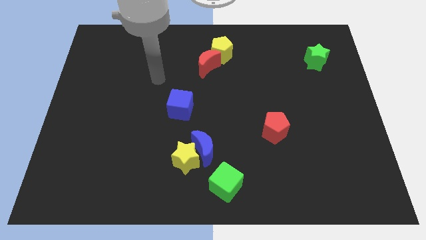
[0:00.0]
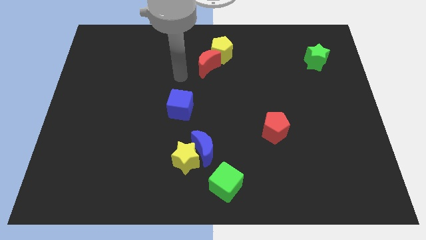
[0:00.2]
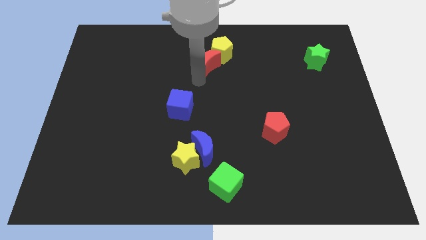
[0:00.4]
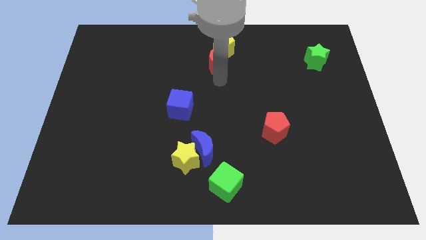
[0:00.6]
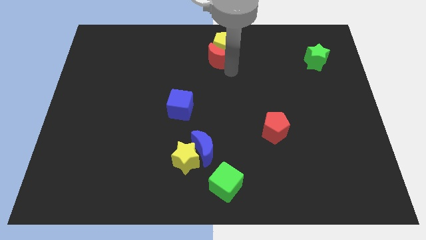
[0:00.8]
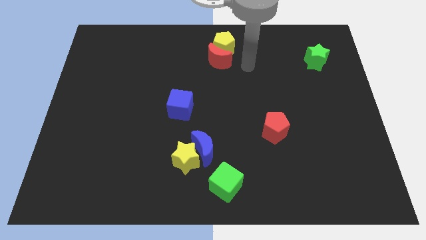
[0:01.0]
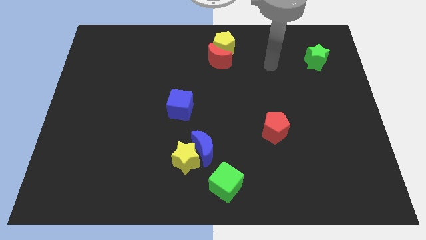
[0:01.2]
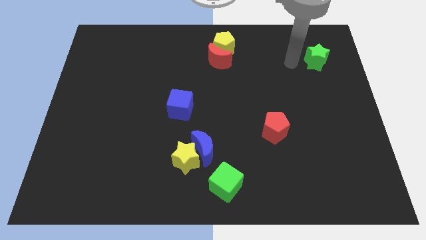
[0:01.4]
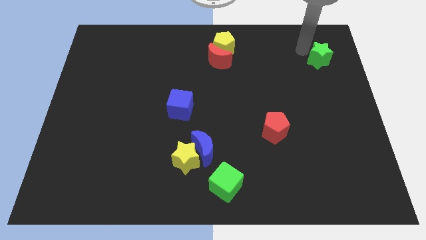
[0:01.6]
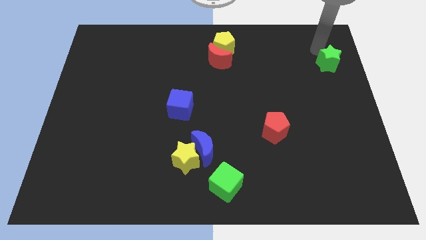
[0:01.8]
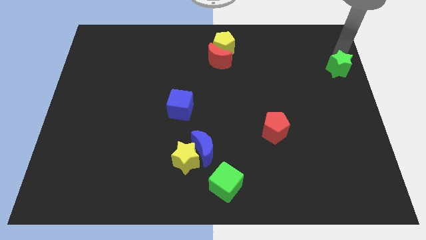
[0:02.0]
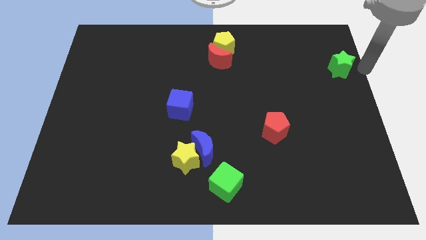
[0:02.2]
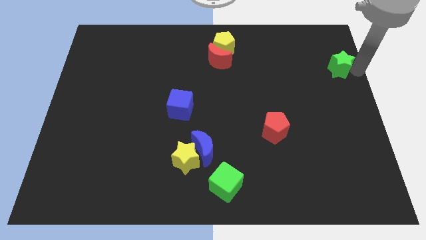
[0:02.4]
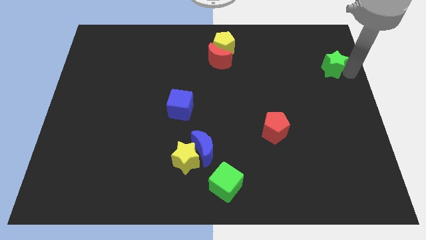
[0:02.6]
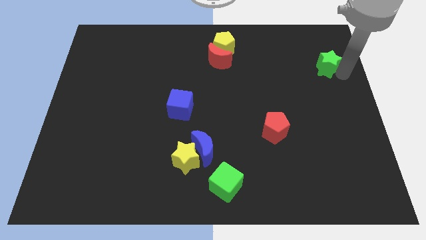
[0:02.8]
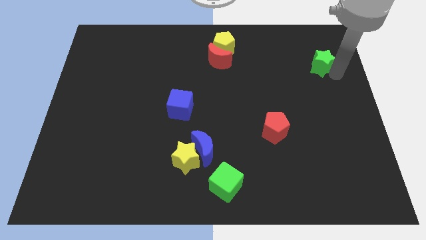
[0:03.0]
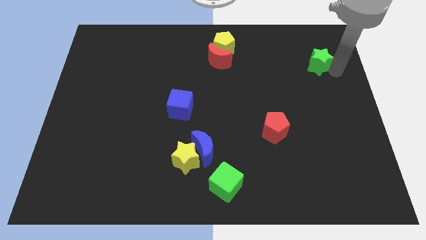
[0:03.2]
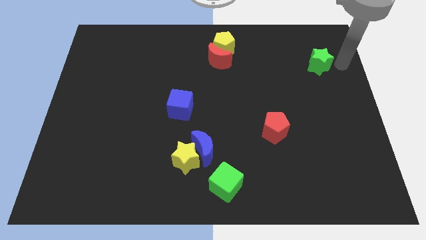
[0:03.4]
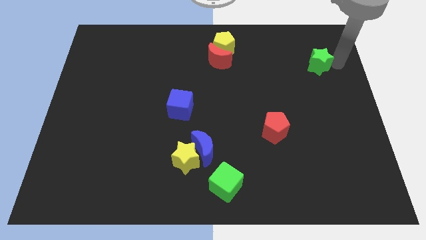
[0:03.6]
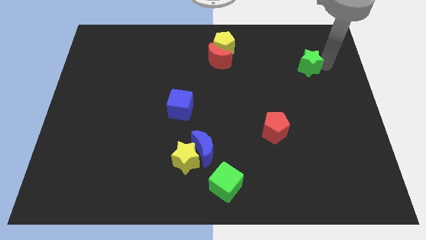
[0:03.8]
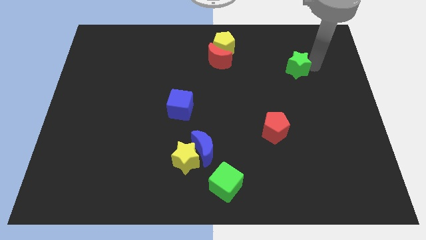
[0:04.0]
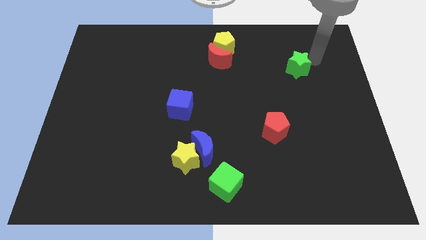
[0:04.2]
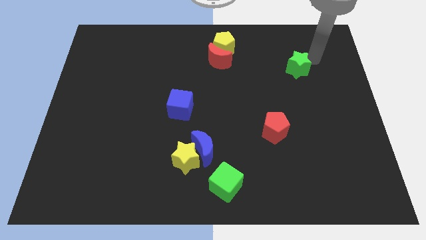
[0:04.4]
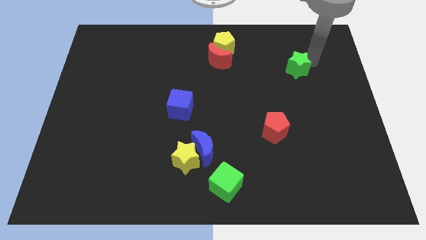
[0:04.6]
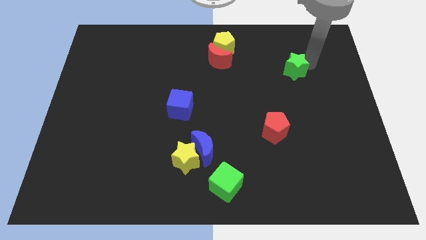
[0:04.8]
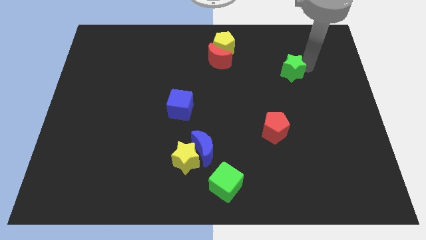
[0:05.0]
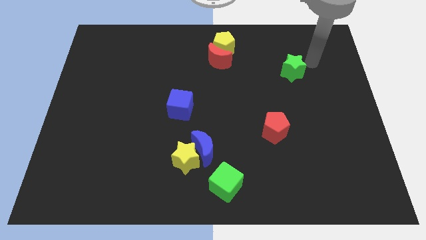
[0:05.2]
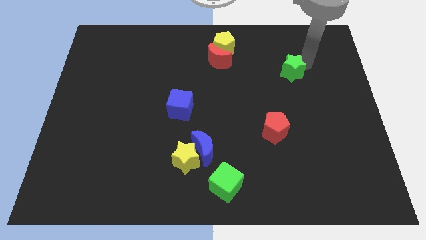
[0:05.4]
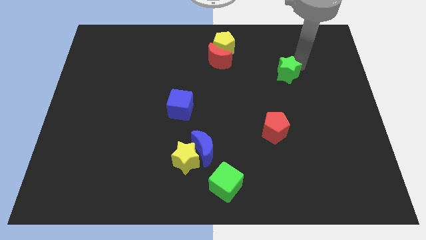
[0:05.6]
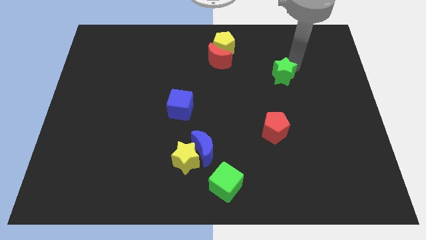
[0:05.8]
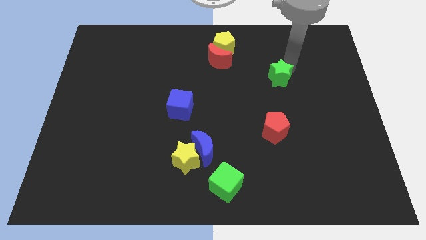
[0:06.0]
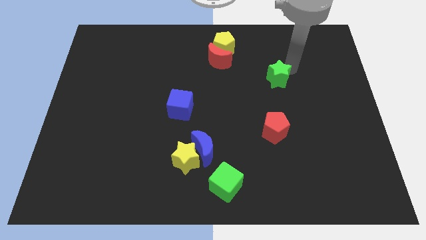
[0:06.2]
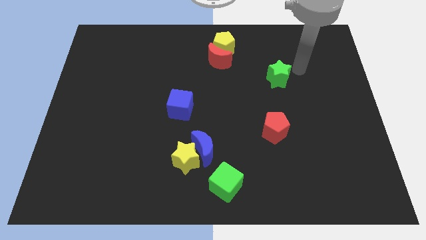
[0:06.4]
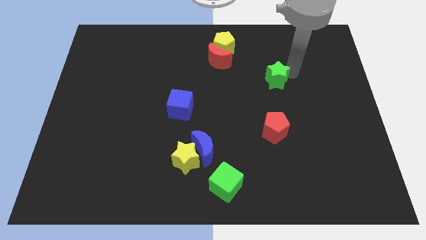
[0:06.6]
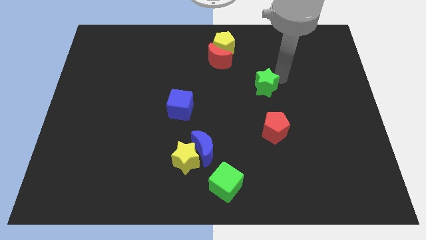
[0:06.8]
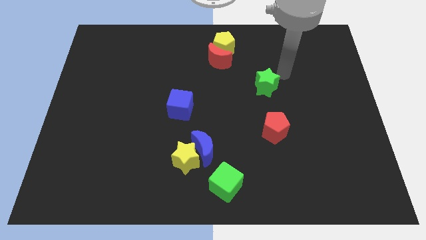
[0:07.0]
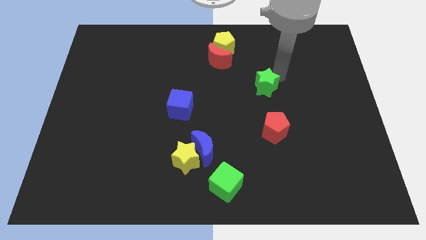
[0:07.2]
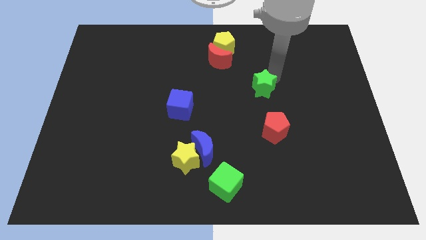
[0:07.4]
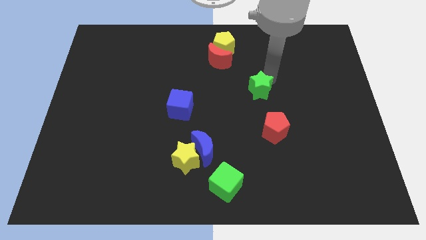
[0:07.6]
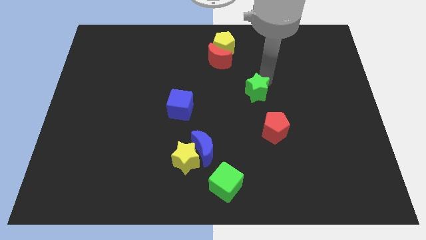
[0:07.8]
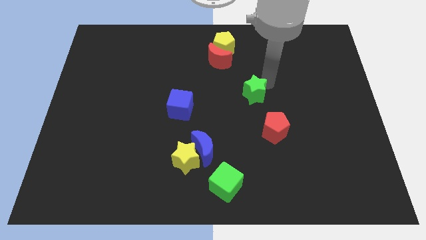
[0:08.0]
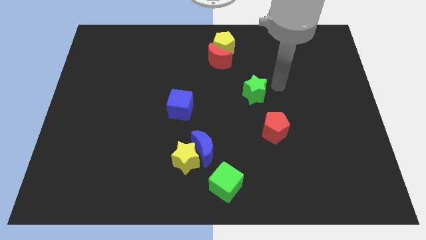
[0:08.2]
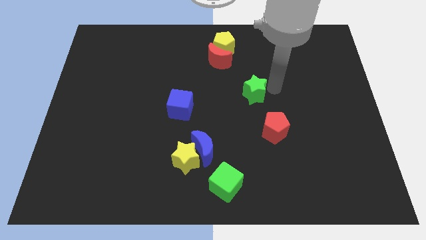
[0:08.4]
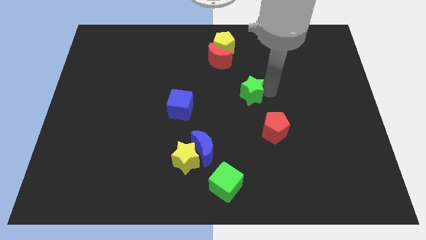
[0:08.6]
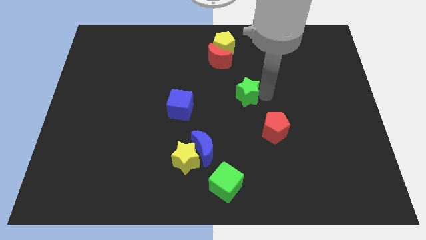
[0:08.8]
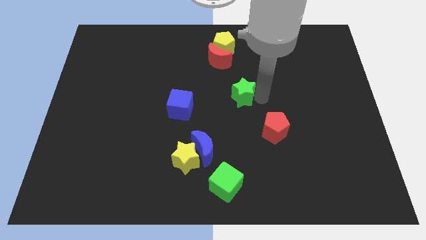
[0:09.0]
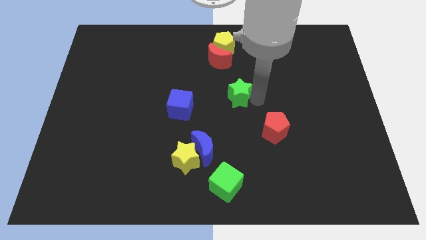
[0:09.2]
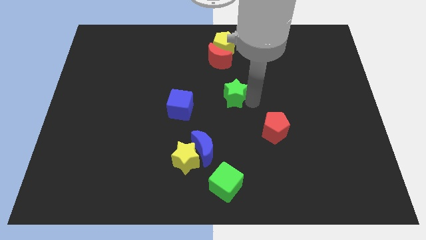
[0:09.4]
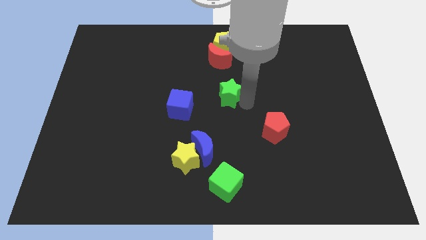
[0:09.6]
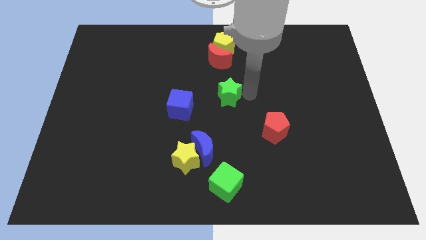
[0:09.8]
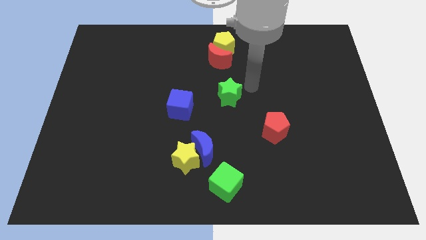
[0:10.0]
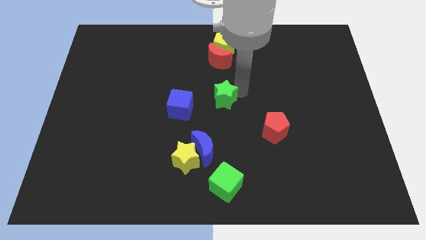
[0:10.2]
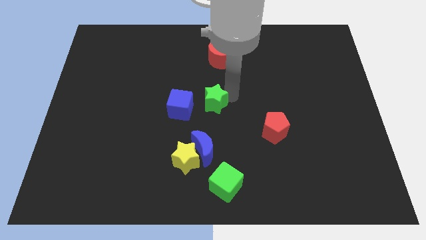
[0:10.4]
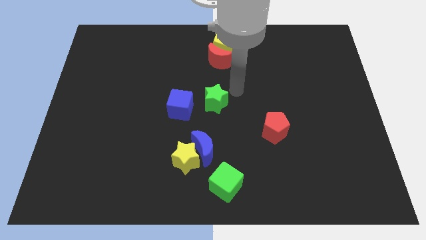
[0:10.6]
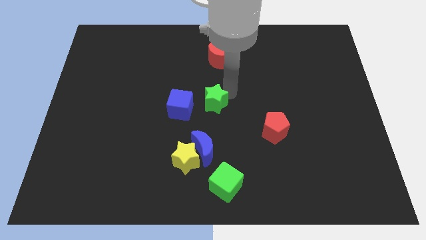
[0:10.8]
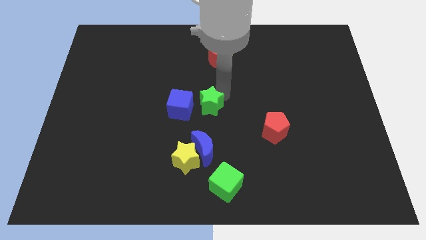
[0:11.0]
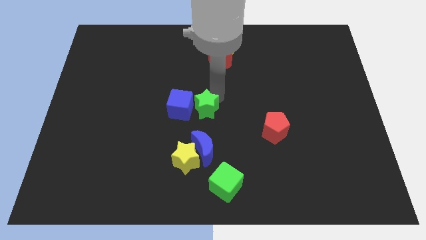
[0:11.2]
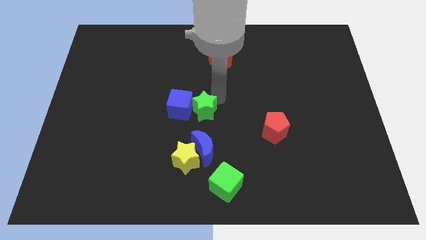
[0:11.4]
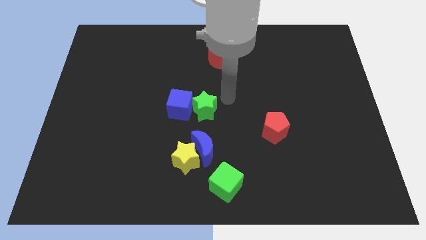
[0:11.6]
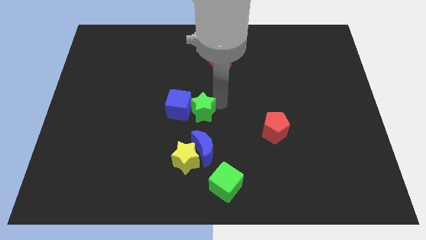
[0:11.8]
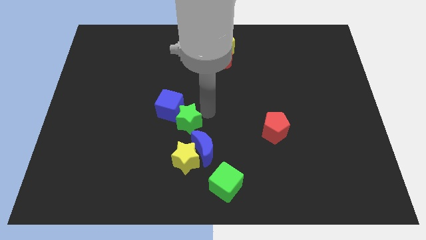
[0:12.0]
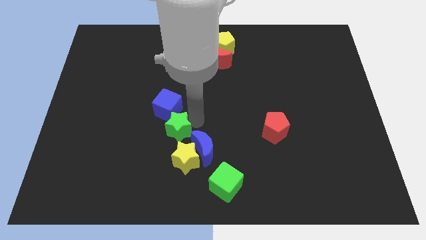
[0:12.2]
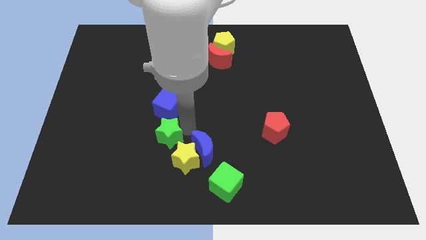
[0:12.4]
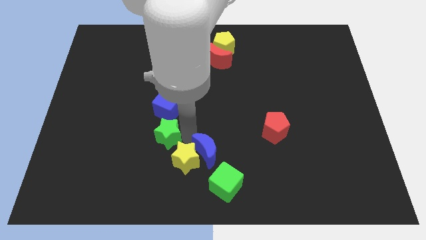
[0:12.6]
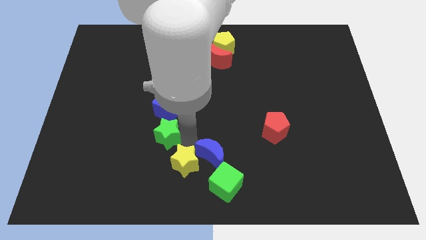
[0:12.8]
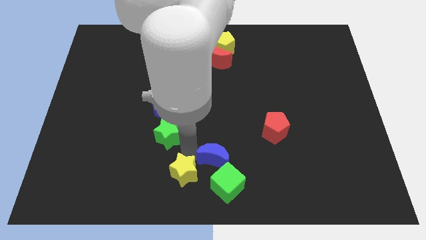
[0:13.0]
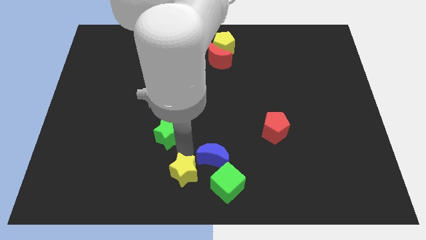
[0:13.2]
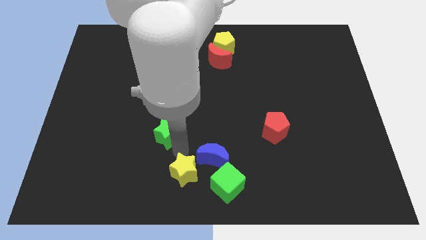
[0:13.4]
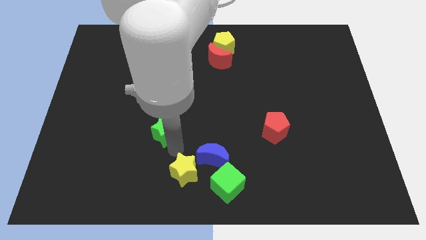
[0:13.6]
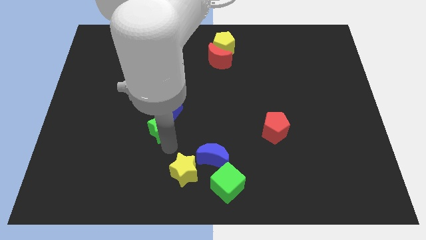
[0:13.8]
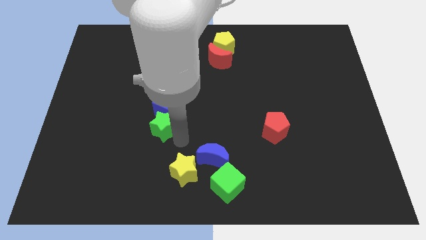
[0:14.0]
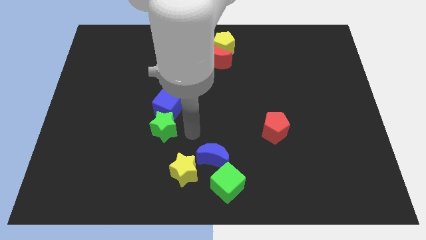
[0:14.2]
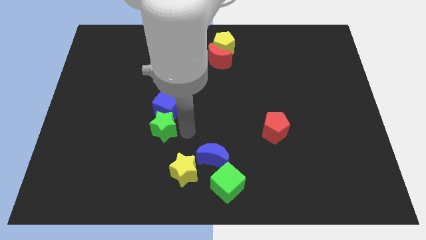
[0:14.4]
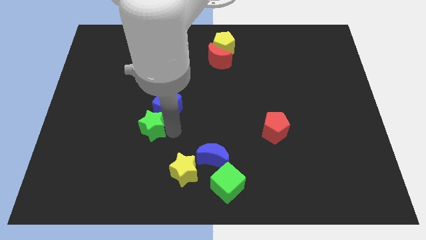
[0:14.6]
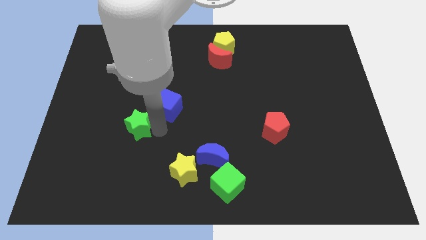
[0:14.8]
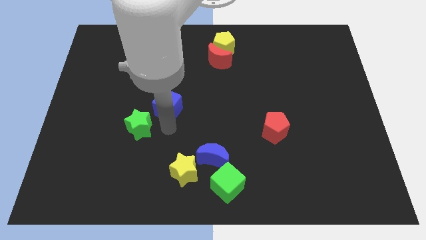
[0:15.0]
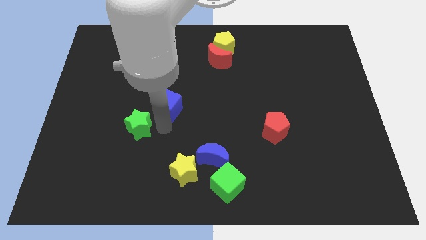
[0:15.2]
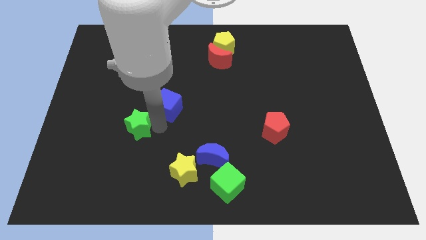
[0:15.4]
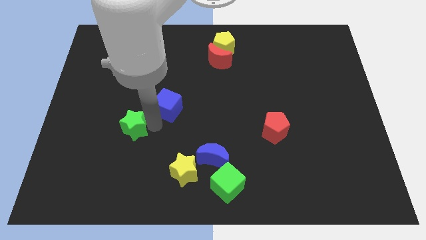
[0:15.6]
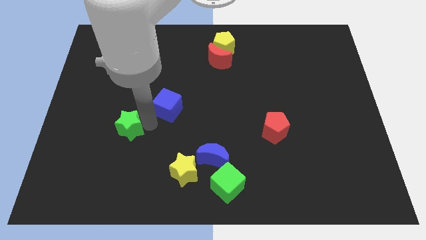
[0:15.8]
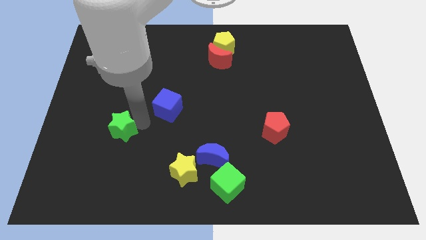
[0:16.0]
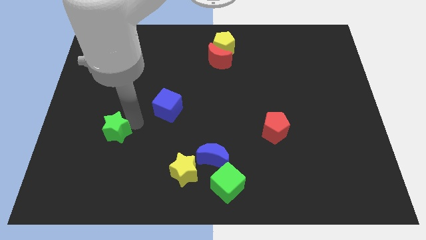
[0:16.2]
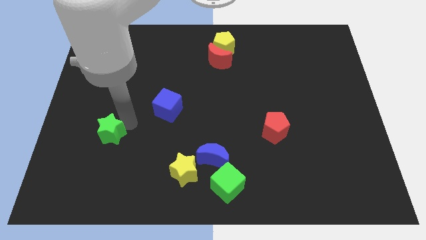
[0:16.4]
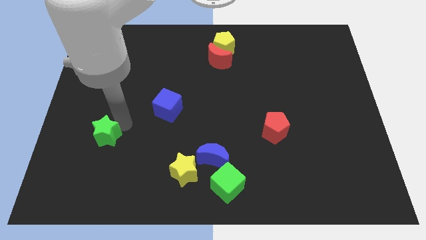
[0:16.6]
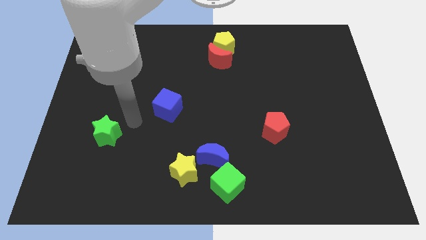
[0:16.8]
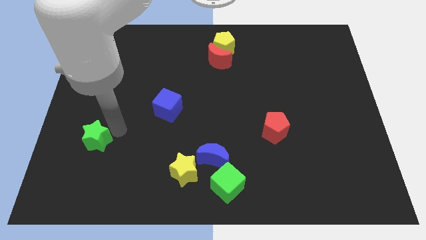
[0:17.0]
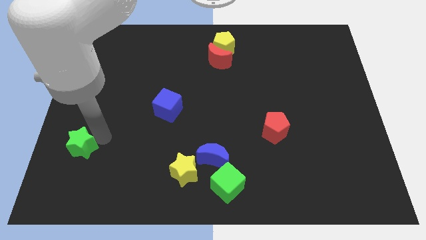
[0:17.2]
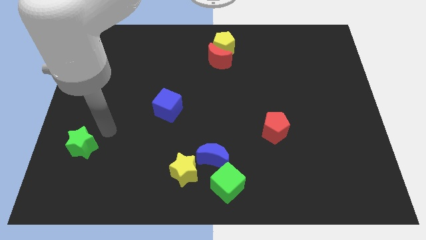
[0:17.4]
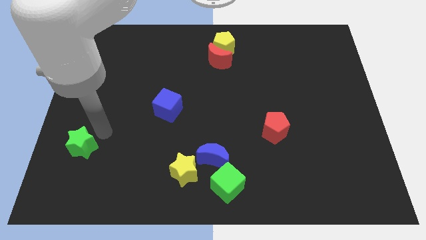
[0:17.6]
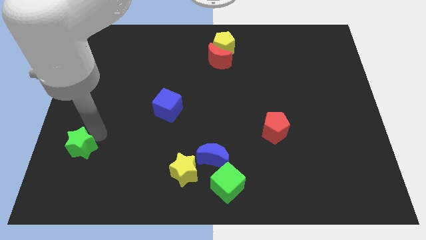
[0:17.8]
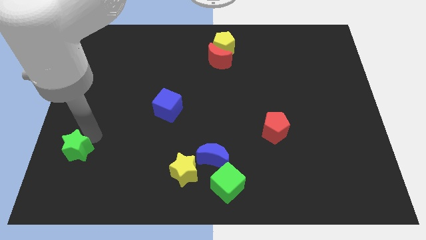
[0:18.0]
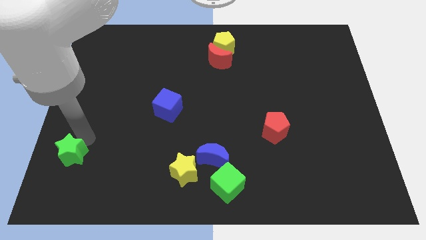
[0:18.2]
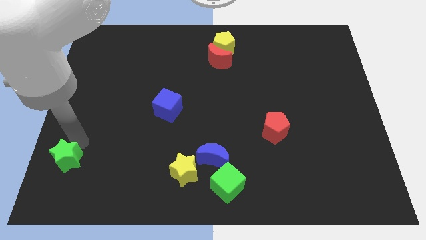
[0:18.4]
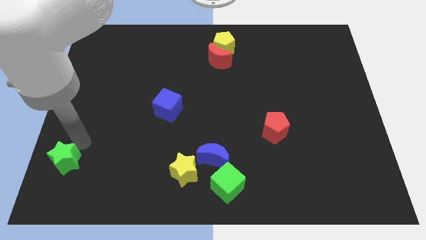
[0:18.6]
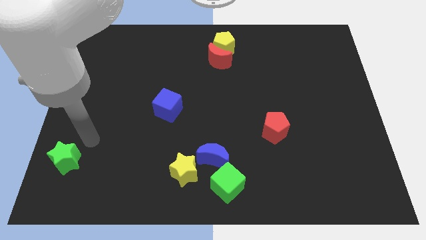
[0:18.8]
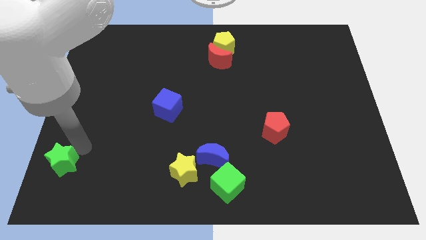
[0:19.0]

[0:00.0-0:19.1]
move the green star to the bottom left
